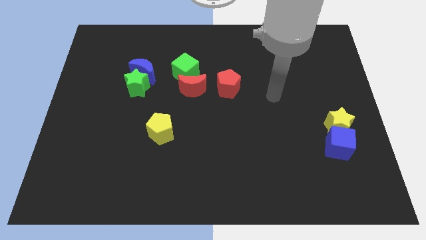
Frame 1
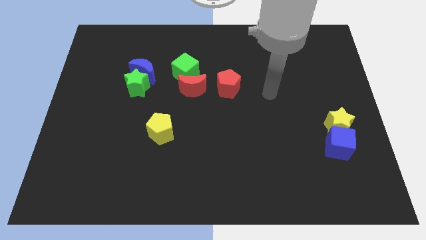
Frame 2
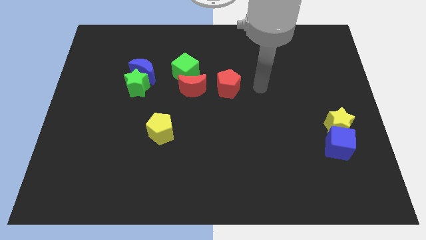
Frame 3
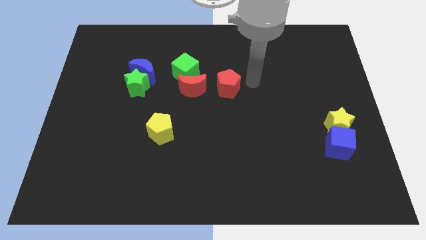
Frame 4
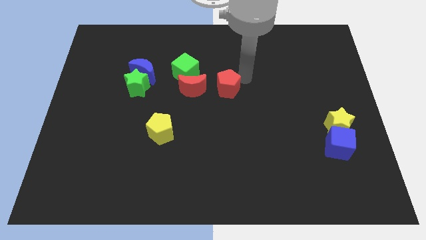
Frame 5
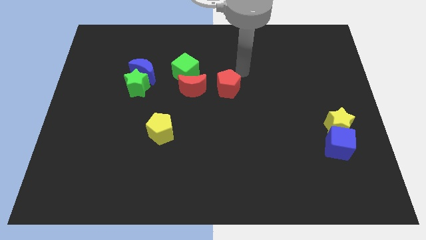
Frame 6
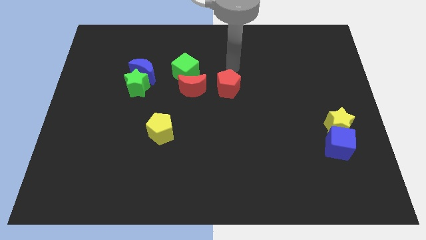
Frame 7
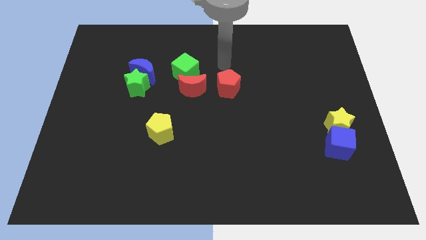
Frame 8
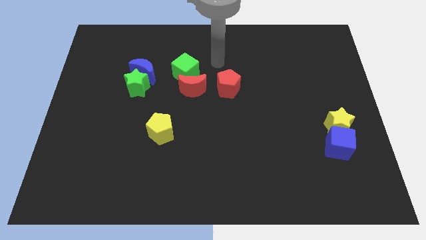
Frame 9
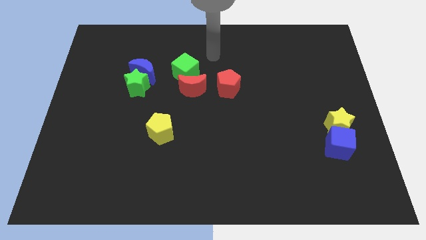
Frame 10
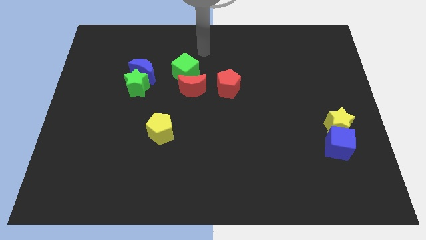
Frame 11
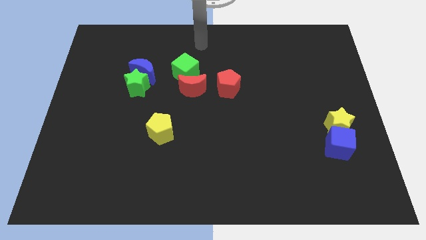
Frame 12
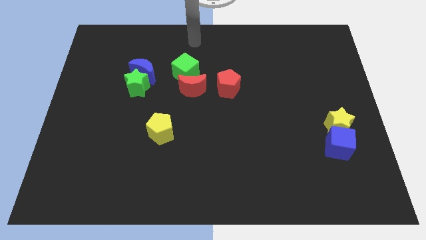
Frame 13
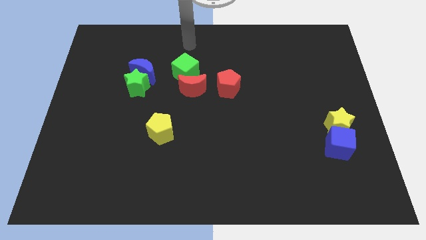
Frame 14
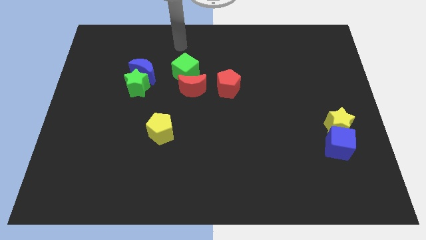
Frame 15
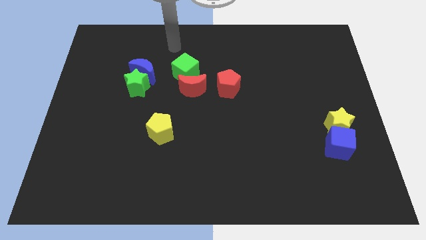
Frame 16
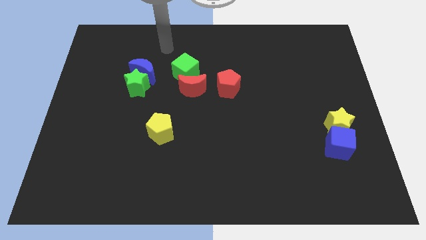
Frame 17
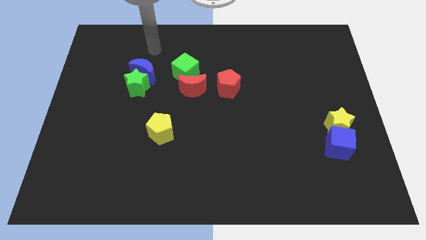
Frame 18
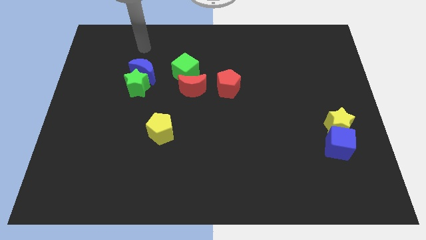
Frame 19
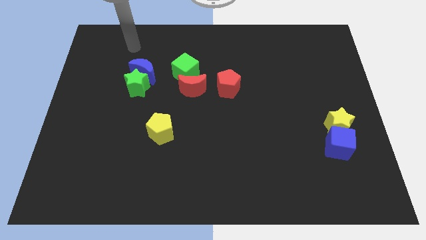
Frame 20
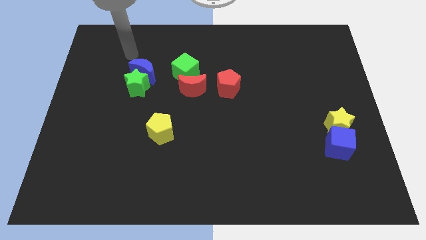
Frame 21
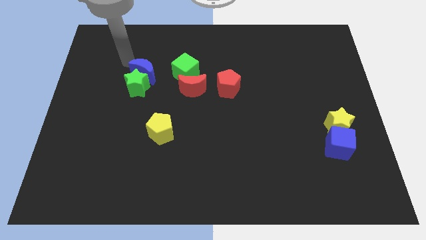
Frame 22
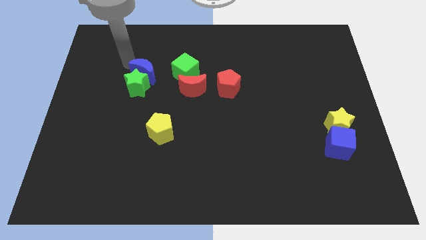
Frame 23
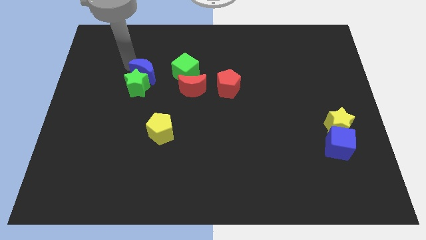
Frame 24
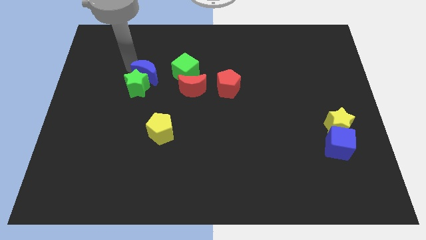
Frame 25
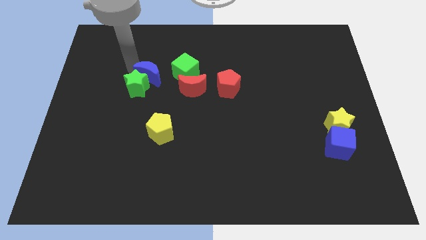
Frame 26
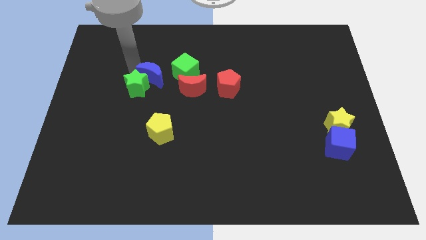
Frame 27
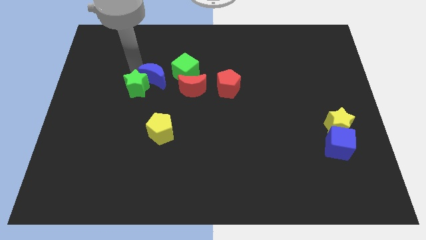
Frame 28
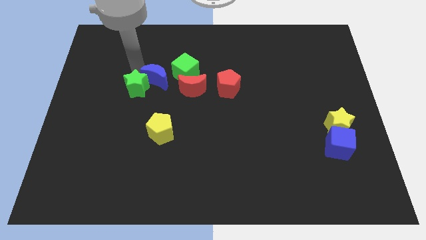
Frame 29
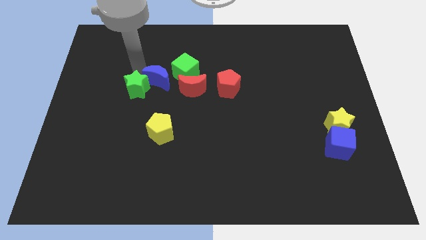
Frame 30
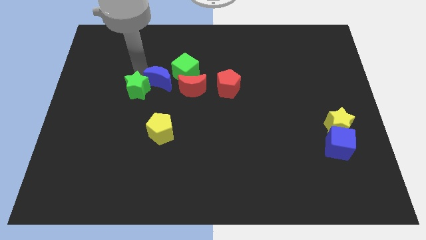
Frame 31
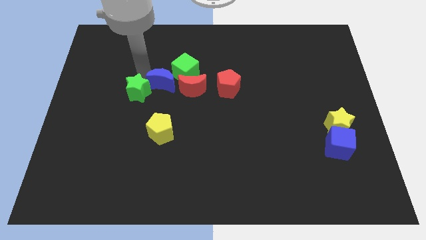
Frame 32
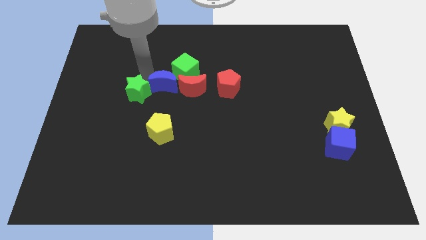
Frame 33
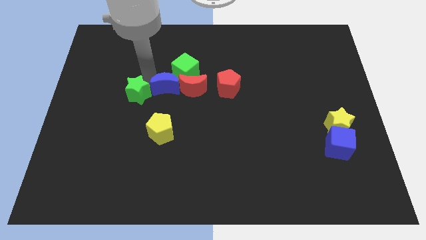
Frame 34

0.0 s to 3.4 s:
move the blue moon diagonally downwards and to the right a little

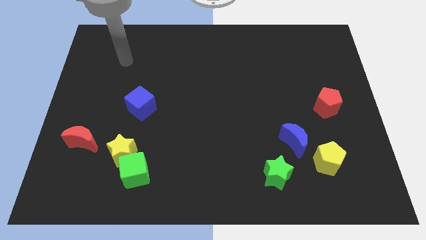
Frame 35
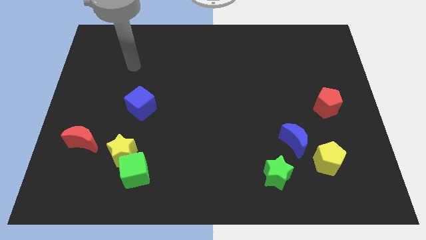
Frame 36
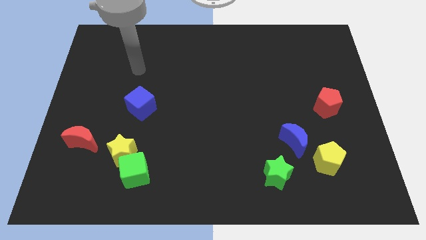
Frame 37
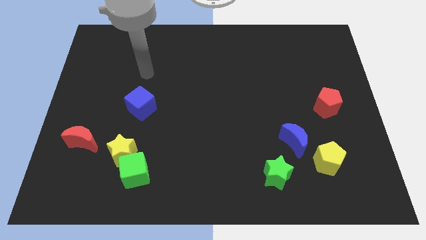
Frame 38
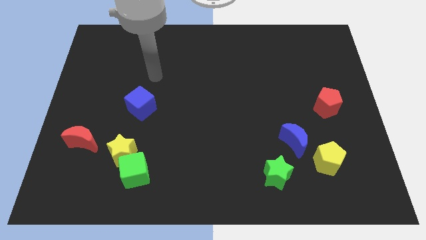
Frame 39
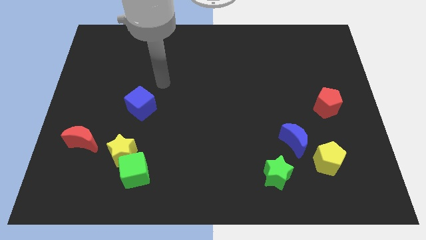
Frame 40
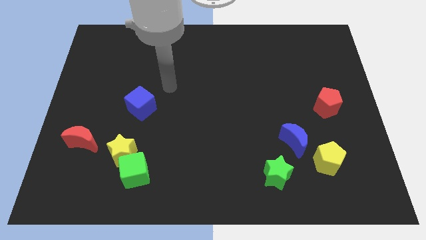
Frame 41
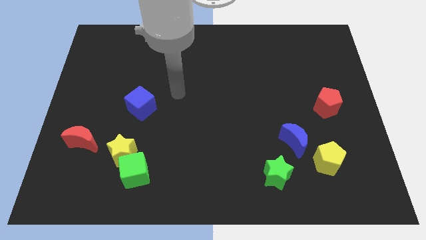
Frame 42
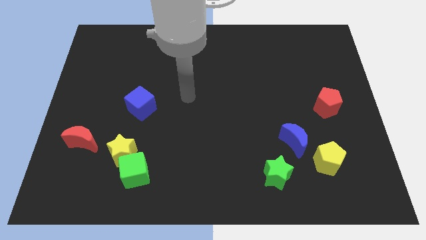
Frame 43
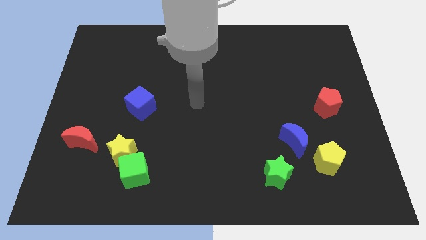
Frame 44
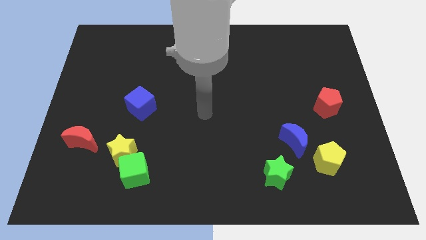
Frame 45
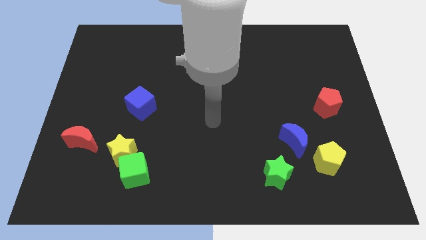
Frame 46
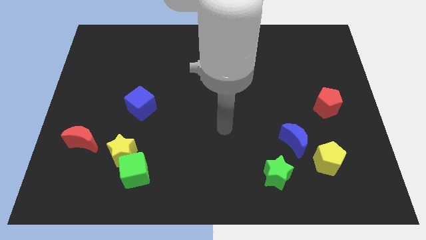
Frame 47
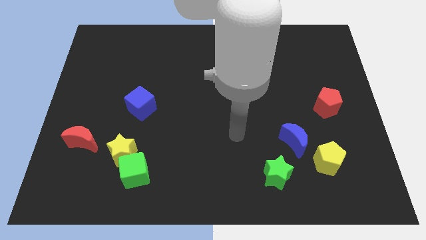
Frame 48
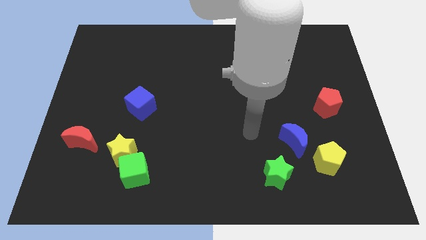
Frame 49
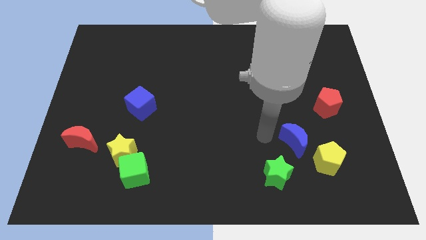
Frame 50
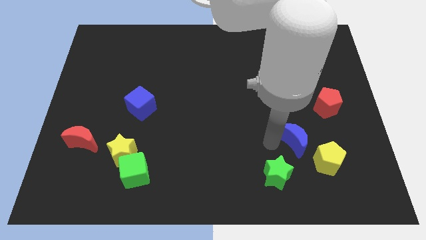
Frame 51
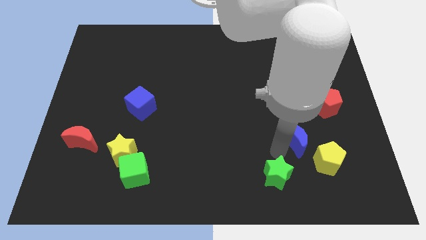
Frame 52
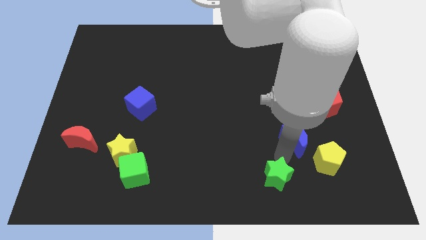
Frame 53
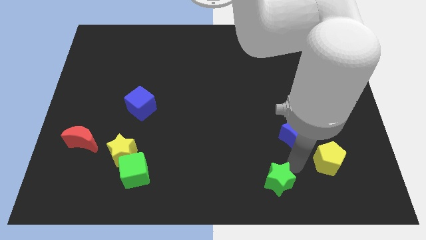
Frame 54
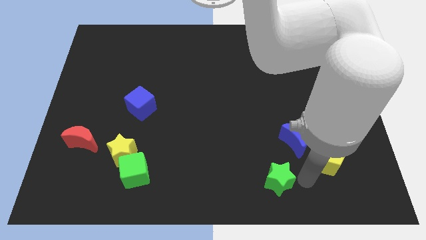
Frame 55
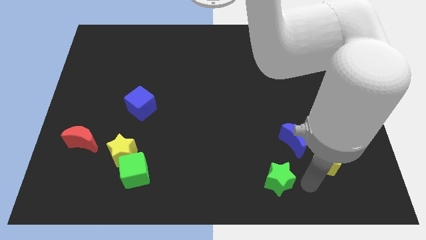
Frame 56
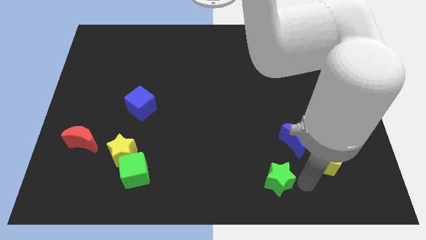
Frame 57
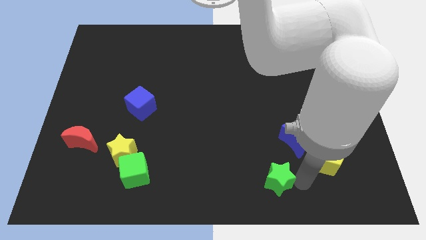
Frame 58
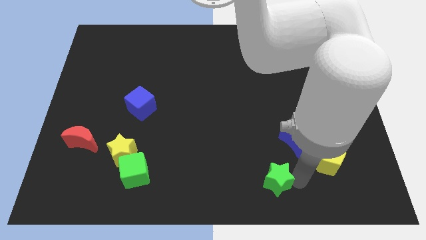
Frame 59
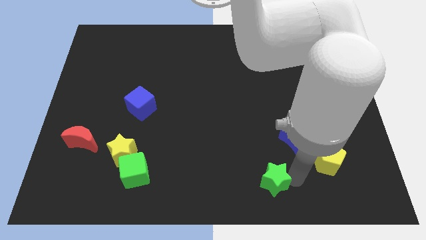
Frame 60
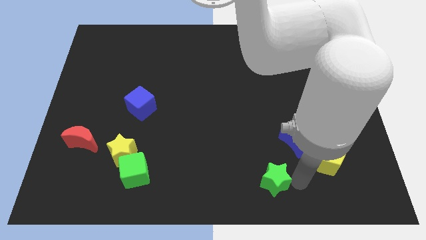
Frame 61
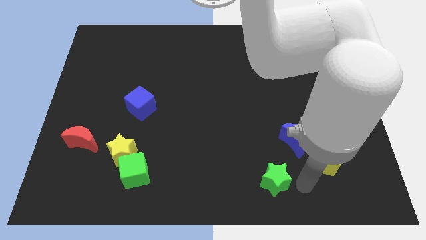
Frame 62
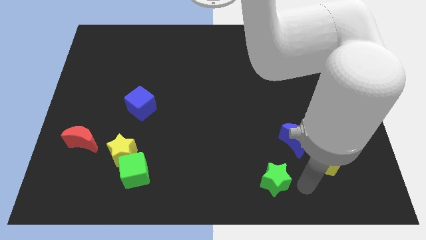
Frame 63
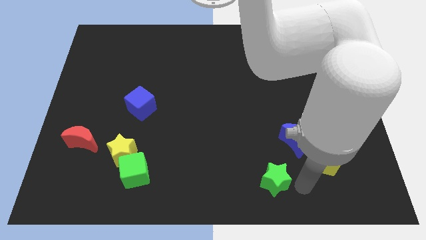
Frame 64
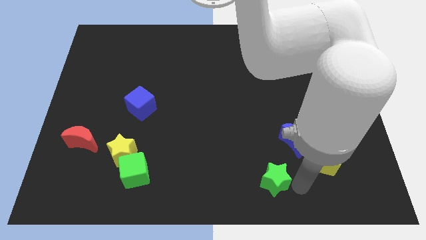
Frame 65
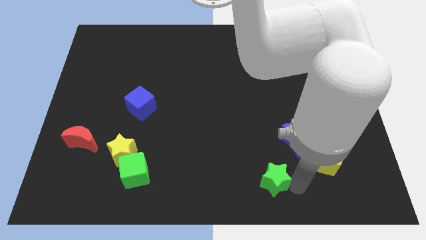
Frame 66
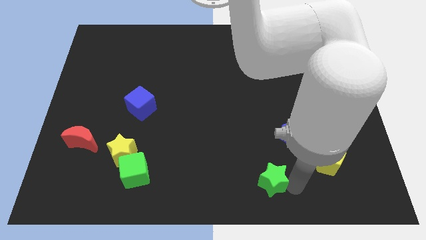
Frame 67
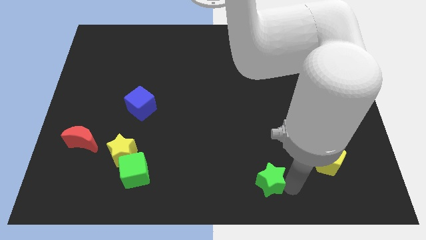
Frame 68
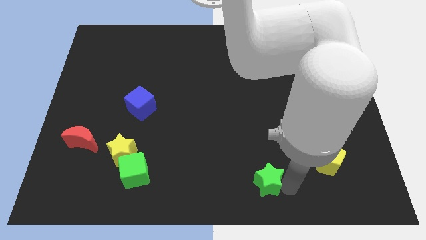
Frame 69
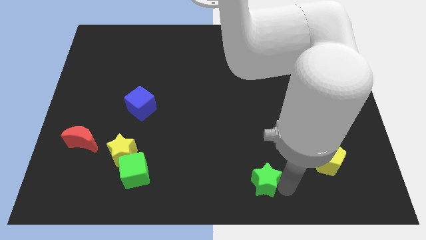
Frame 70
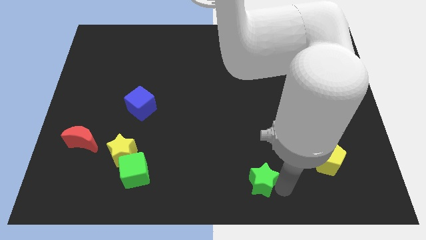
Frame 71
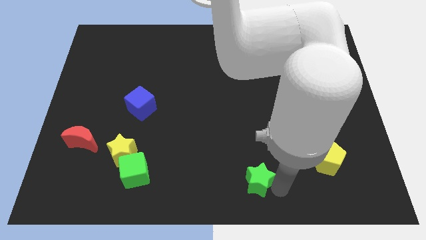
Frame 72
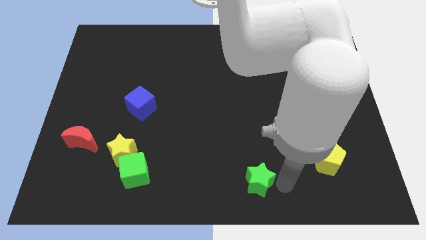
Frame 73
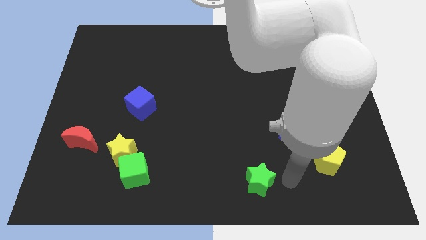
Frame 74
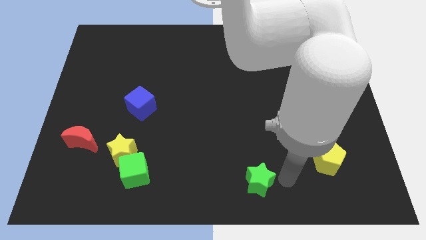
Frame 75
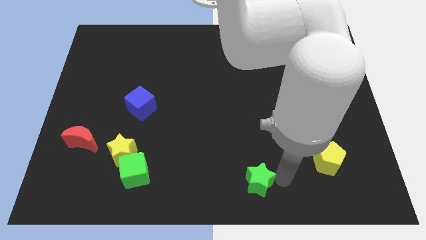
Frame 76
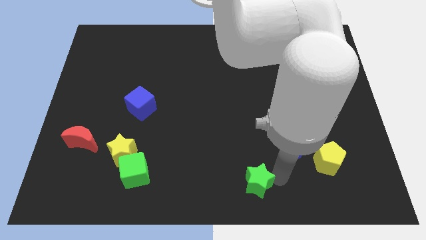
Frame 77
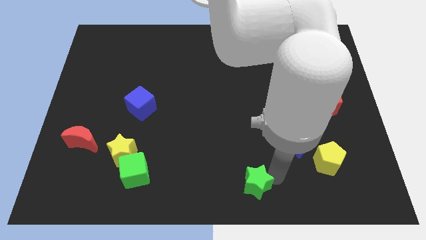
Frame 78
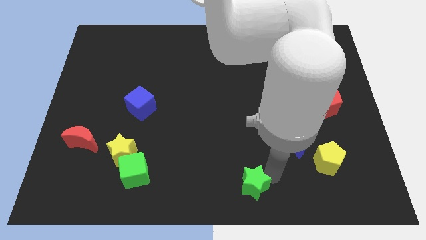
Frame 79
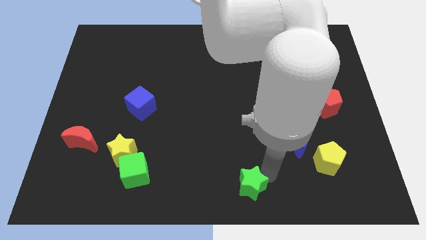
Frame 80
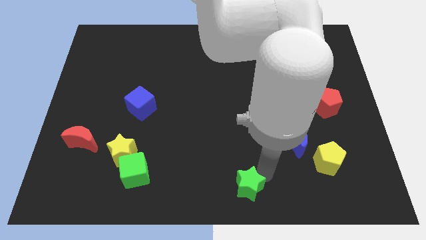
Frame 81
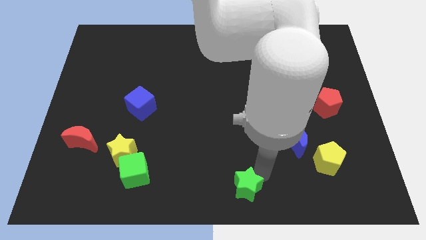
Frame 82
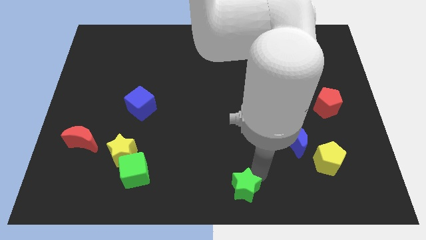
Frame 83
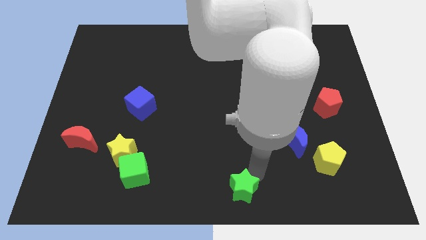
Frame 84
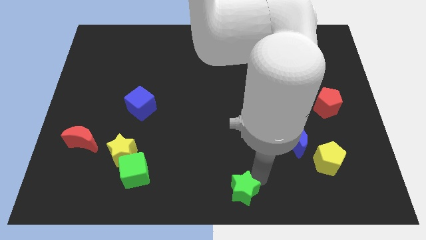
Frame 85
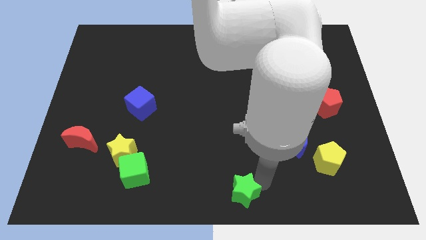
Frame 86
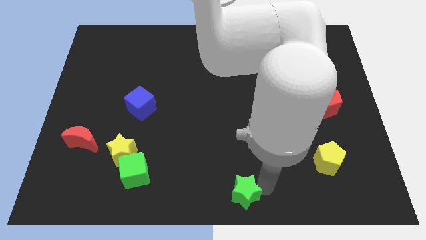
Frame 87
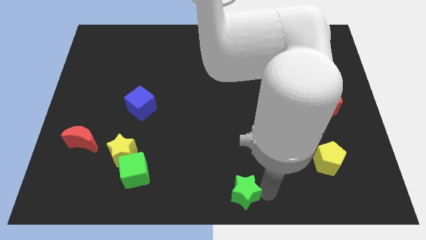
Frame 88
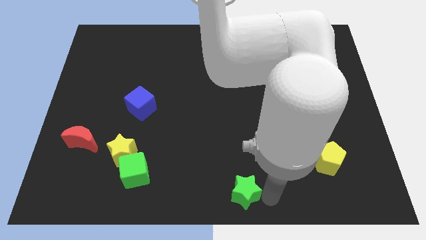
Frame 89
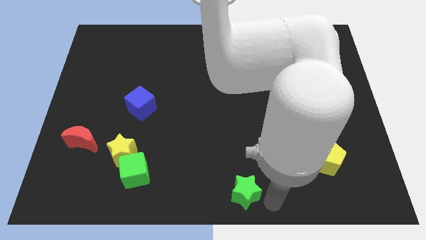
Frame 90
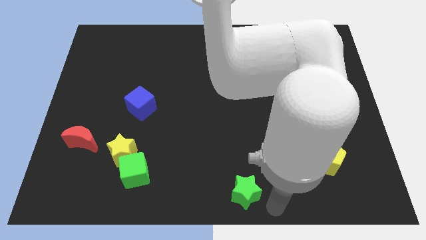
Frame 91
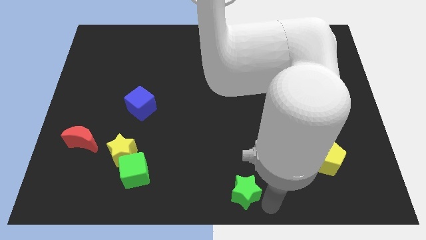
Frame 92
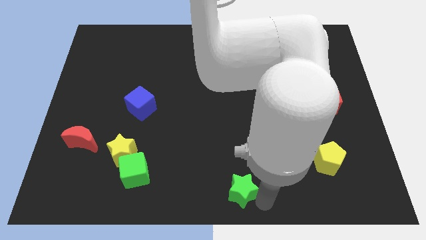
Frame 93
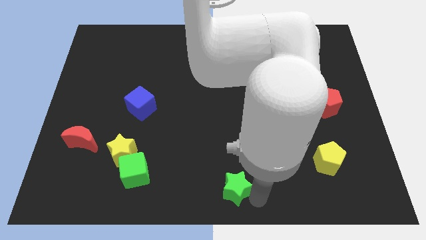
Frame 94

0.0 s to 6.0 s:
move the green star left a little
